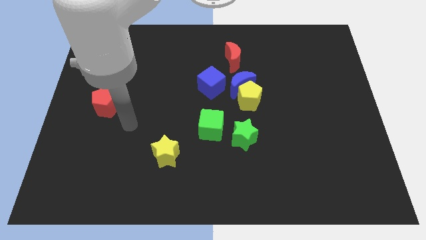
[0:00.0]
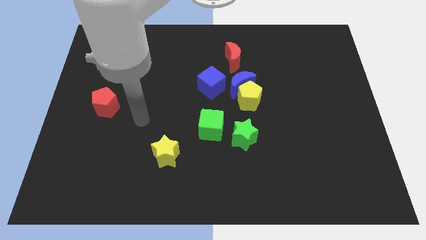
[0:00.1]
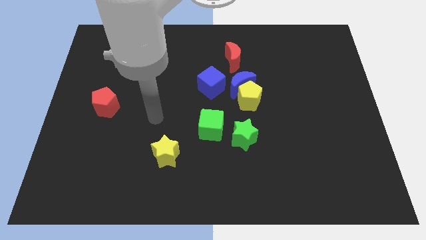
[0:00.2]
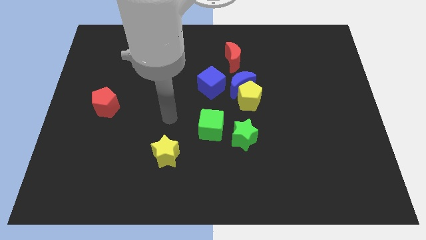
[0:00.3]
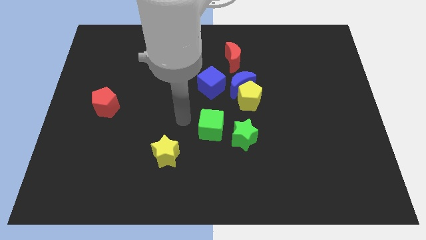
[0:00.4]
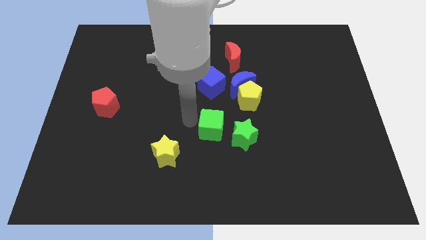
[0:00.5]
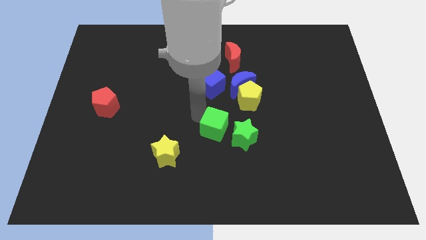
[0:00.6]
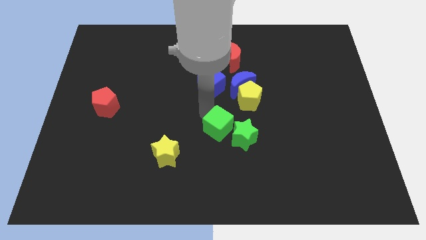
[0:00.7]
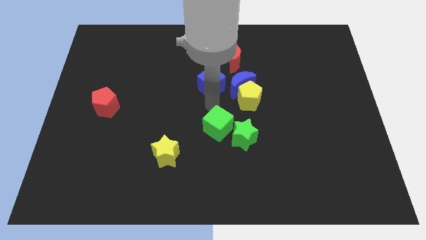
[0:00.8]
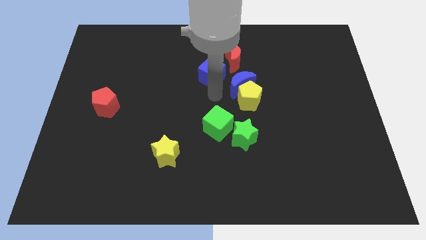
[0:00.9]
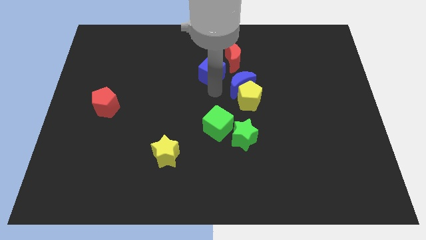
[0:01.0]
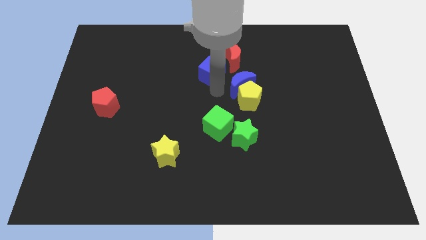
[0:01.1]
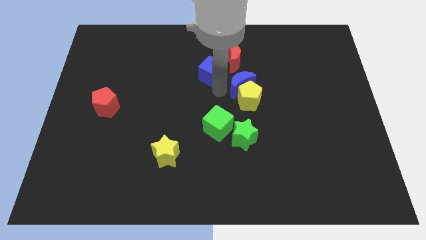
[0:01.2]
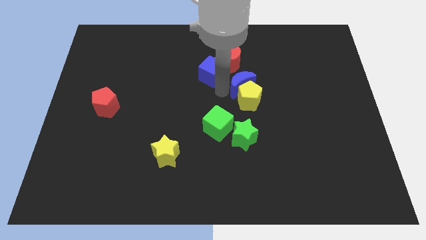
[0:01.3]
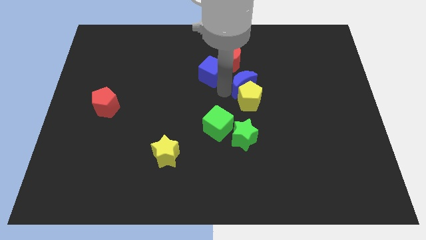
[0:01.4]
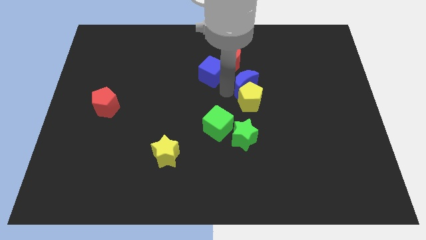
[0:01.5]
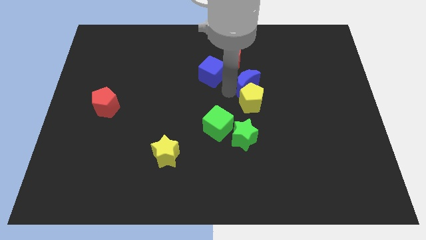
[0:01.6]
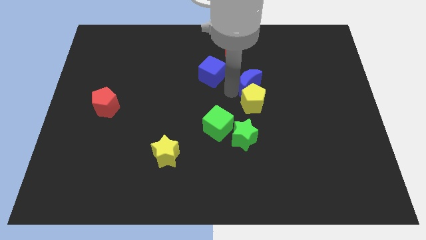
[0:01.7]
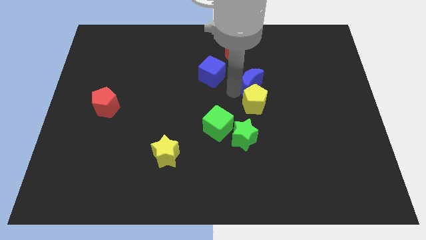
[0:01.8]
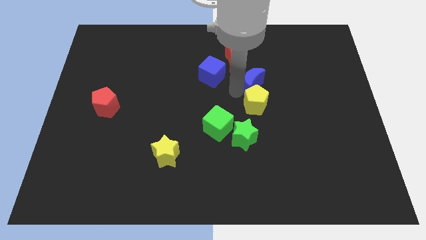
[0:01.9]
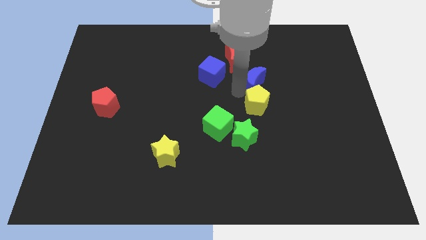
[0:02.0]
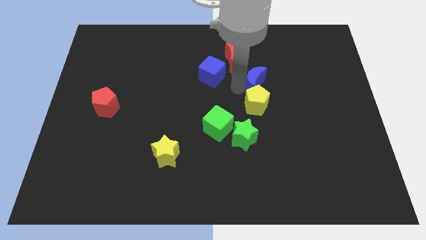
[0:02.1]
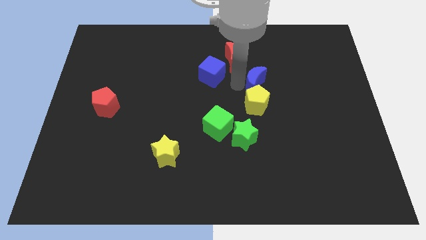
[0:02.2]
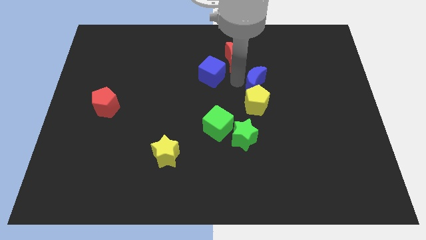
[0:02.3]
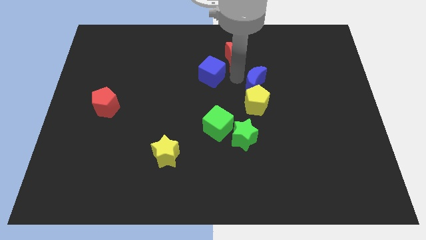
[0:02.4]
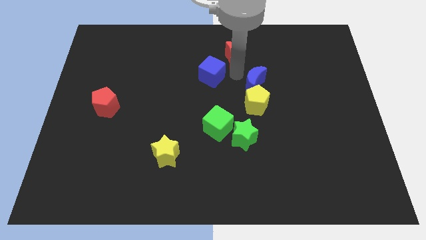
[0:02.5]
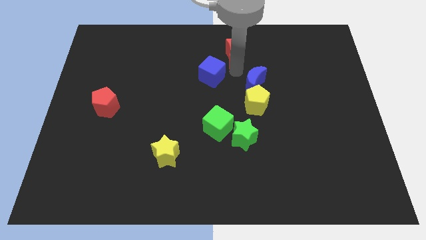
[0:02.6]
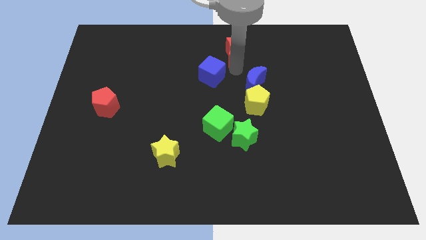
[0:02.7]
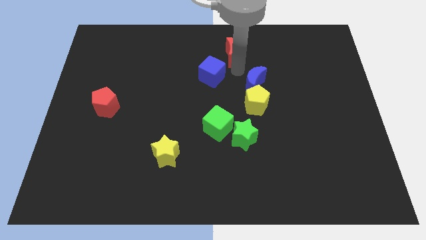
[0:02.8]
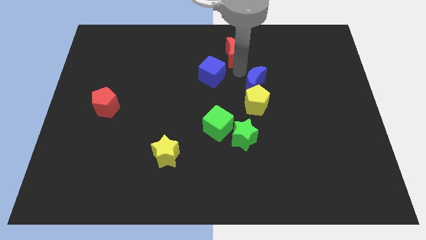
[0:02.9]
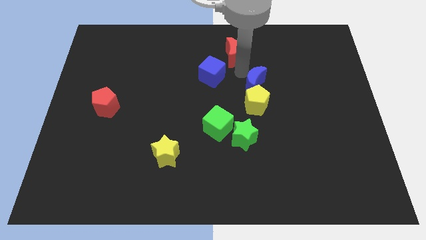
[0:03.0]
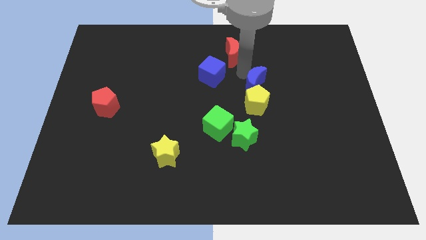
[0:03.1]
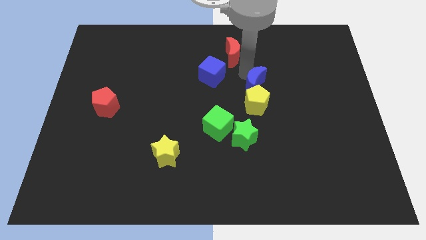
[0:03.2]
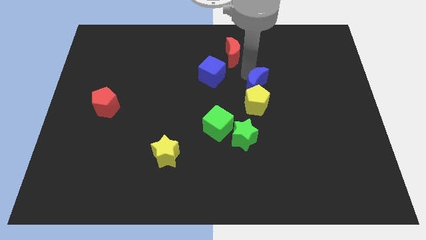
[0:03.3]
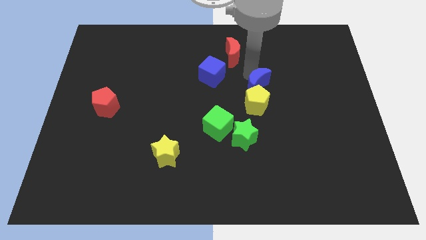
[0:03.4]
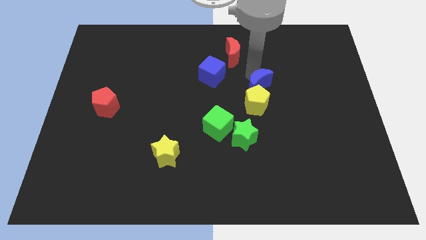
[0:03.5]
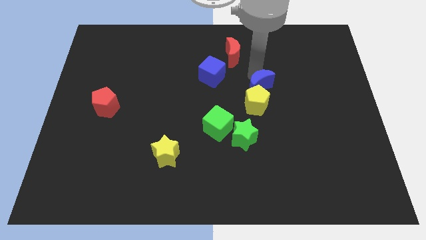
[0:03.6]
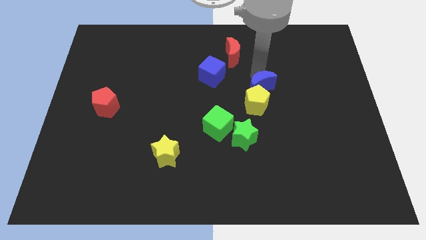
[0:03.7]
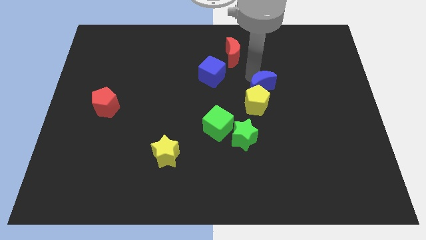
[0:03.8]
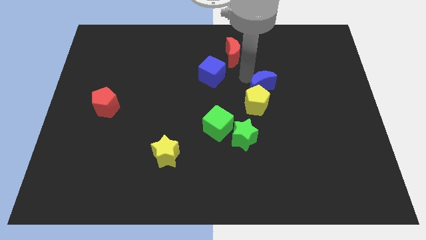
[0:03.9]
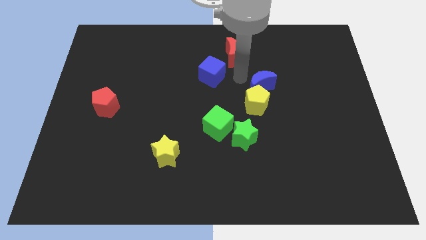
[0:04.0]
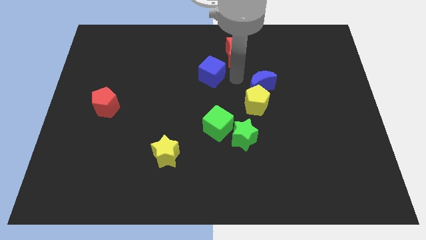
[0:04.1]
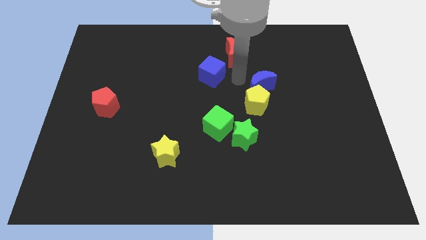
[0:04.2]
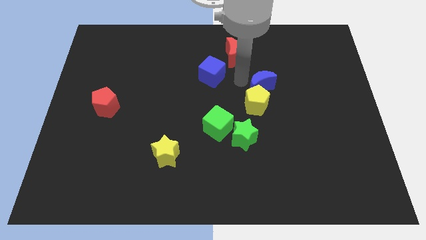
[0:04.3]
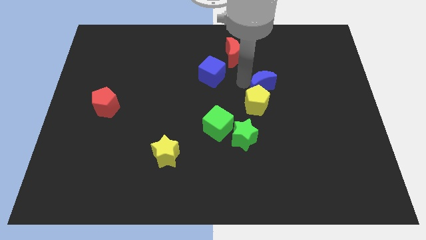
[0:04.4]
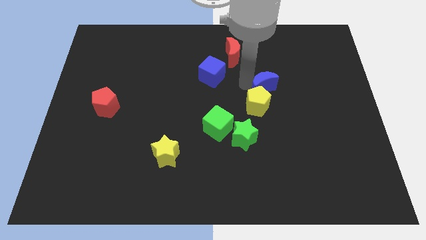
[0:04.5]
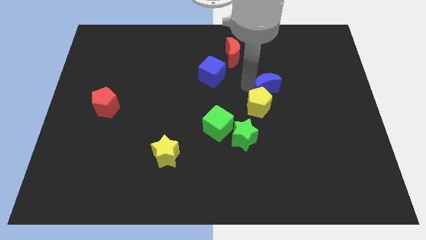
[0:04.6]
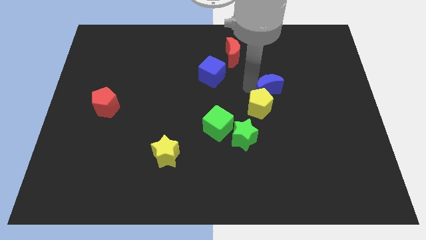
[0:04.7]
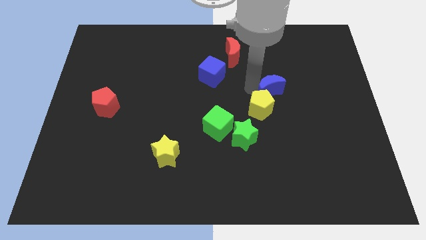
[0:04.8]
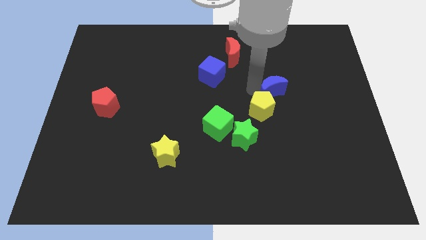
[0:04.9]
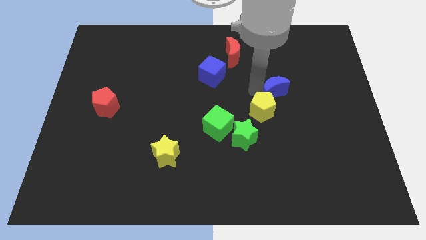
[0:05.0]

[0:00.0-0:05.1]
move the blue moon away from the group of blocks

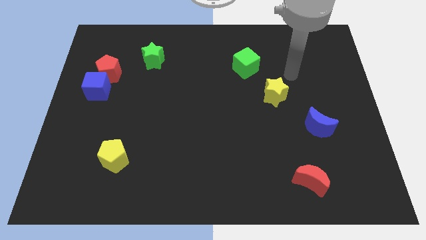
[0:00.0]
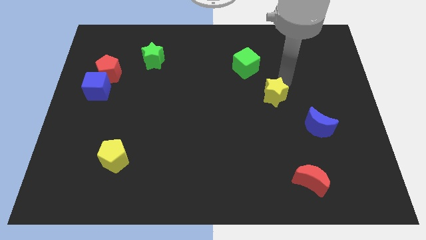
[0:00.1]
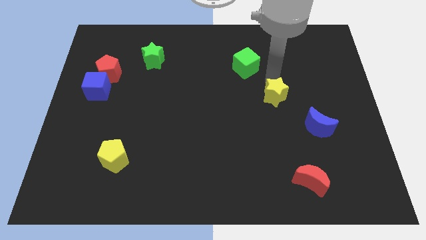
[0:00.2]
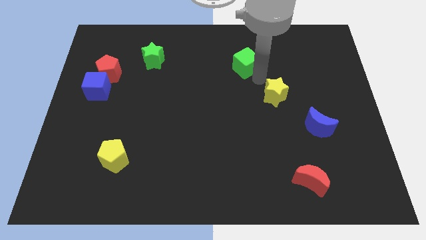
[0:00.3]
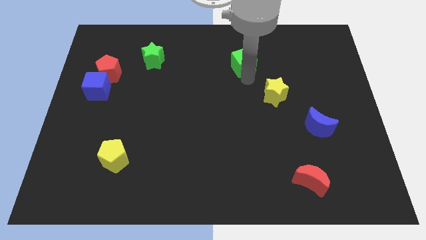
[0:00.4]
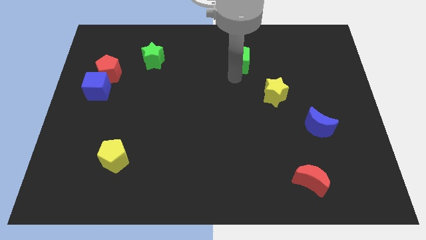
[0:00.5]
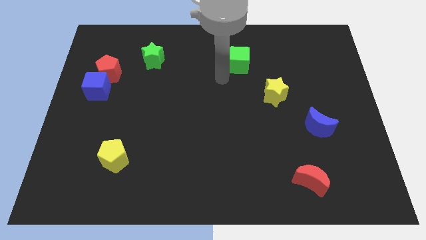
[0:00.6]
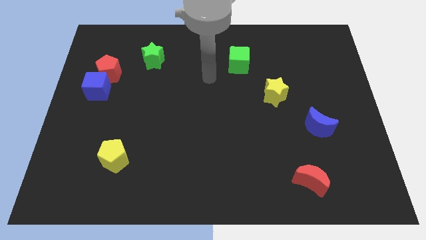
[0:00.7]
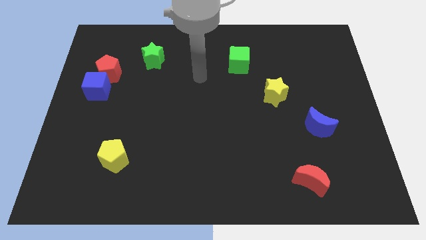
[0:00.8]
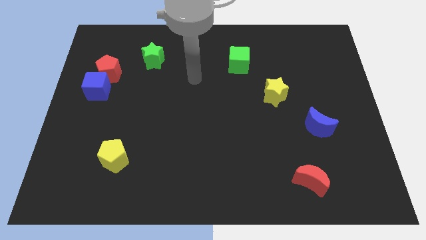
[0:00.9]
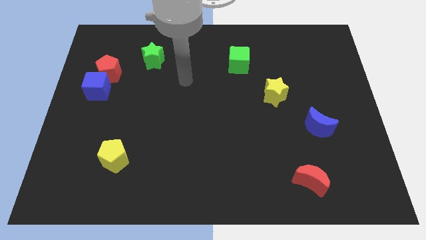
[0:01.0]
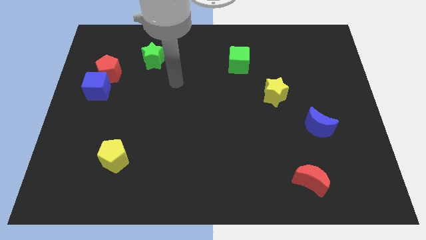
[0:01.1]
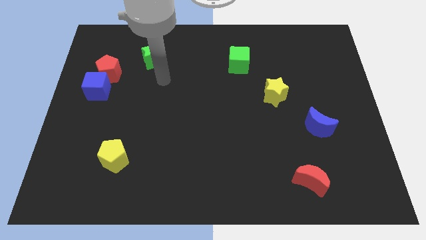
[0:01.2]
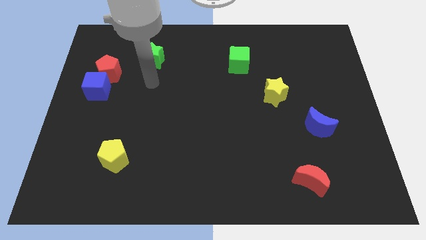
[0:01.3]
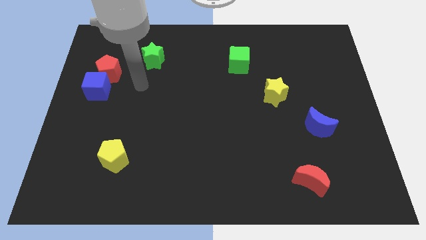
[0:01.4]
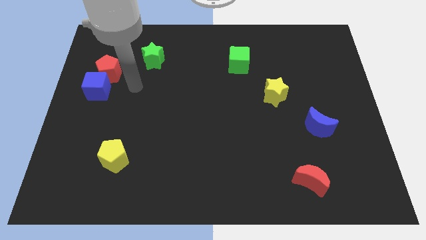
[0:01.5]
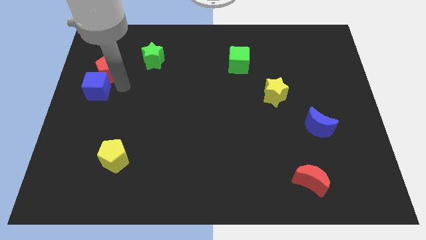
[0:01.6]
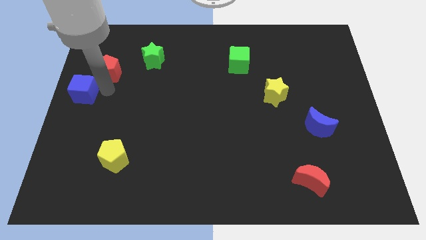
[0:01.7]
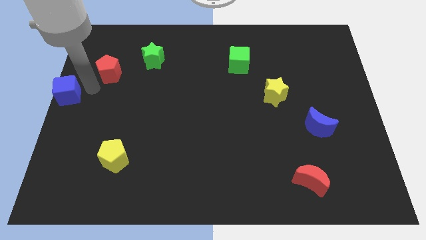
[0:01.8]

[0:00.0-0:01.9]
move the red pentagon away from the blue cube

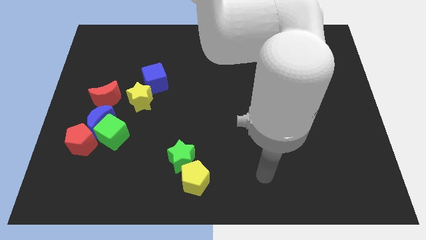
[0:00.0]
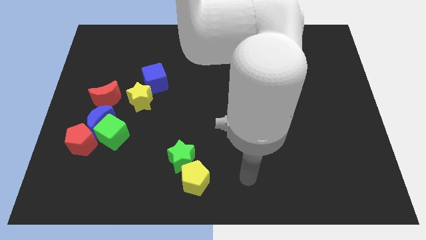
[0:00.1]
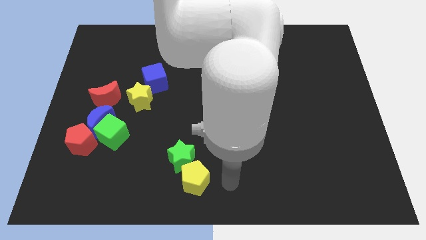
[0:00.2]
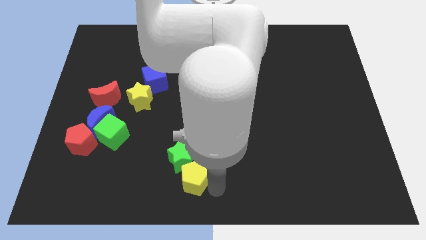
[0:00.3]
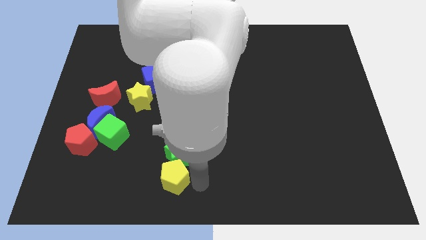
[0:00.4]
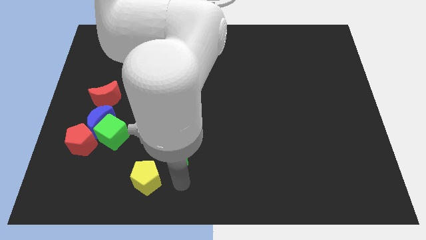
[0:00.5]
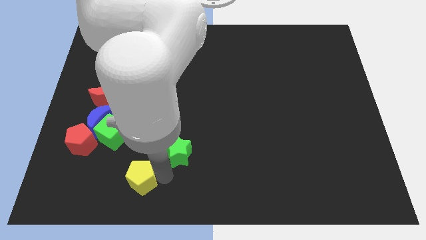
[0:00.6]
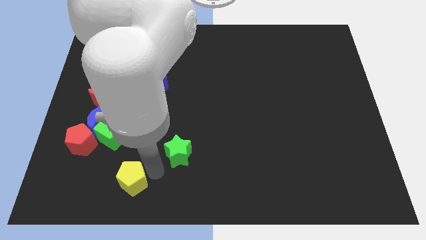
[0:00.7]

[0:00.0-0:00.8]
separate the green star from the yellow pentagon

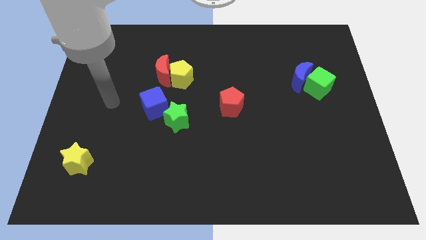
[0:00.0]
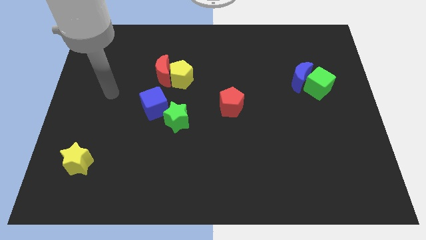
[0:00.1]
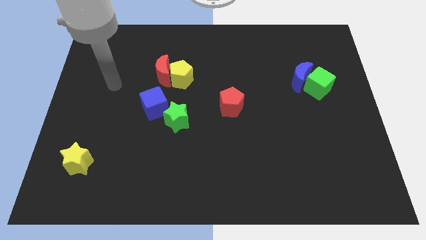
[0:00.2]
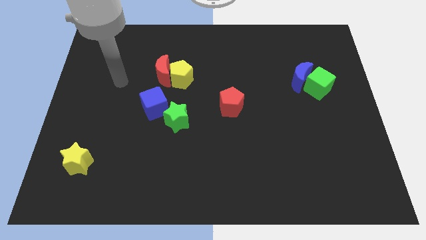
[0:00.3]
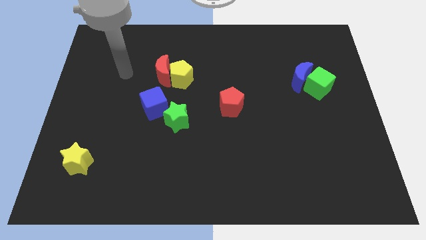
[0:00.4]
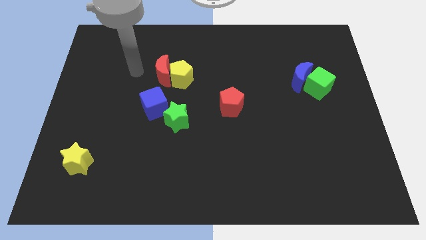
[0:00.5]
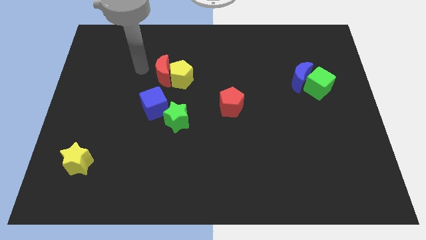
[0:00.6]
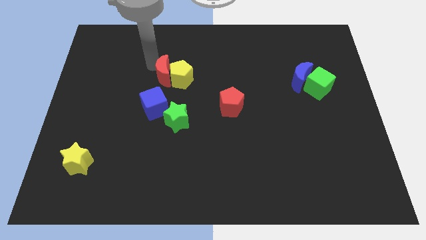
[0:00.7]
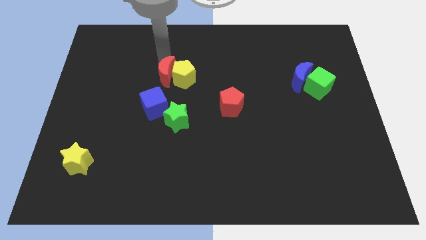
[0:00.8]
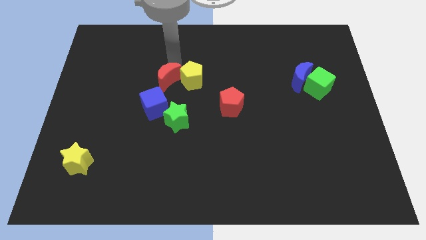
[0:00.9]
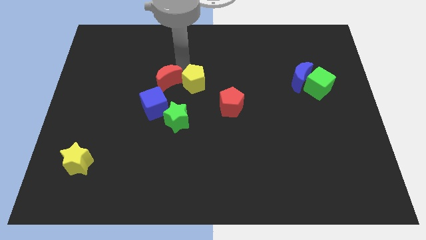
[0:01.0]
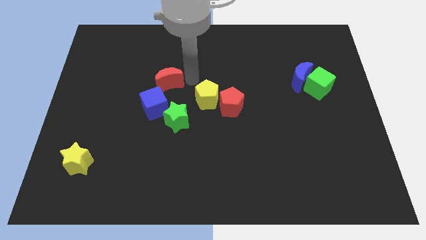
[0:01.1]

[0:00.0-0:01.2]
pull the red moon apart from the yellow pentagon

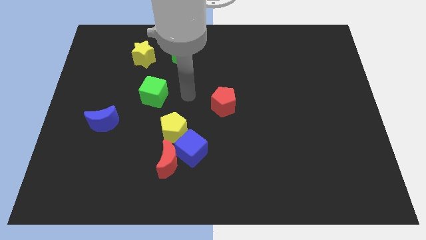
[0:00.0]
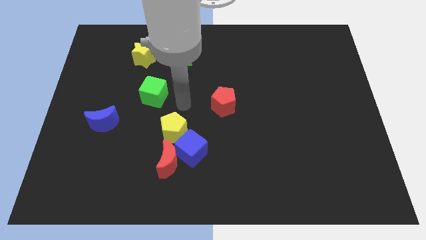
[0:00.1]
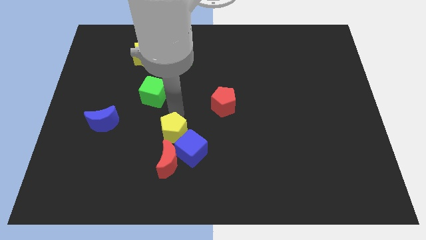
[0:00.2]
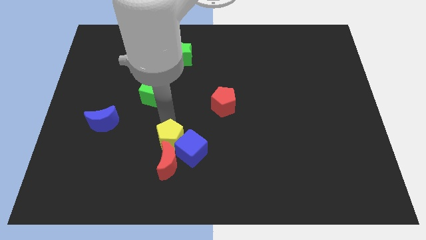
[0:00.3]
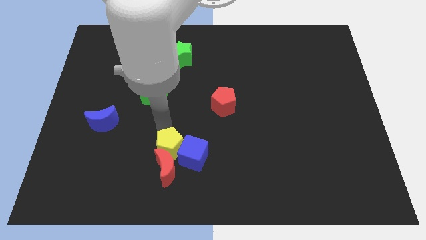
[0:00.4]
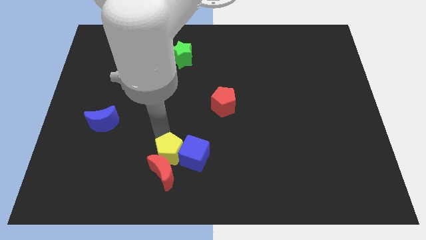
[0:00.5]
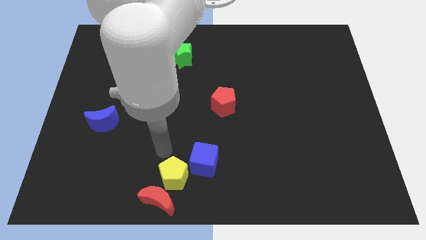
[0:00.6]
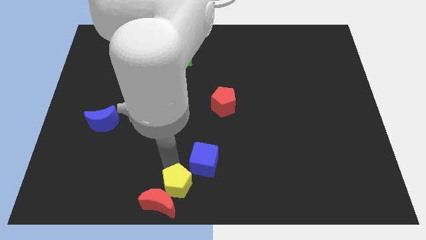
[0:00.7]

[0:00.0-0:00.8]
pull the blue cube apart from the red moon and yellow pentagon
